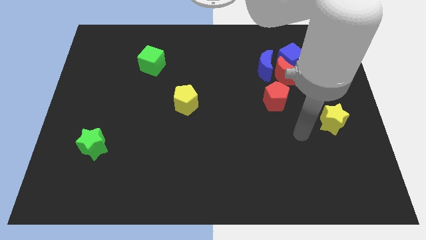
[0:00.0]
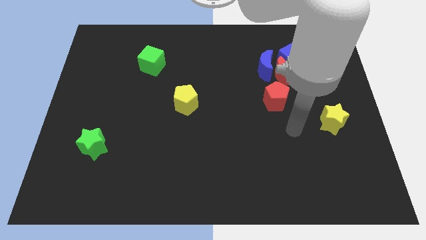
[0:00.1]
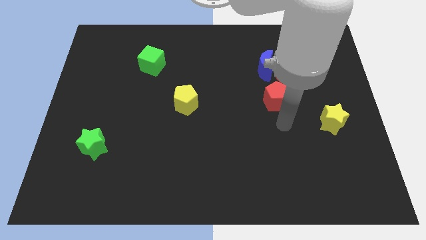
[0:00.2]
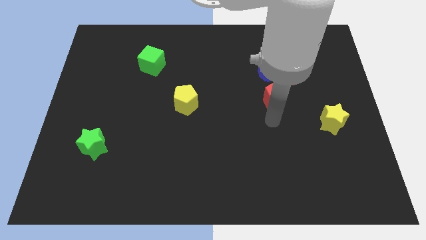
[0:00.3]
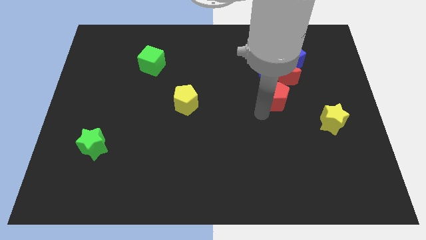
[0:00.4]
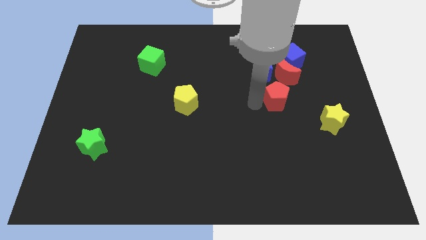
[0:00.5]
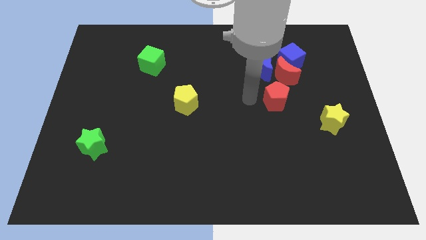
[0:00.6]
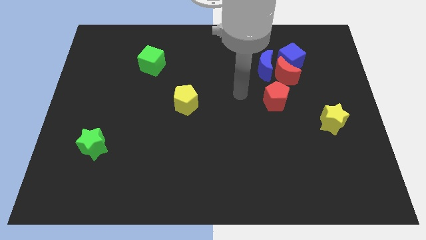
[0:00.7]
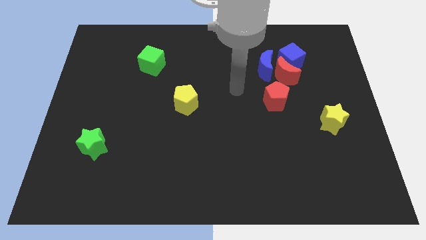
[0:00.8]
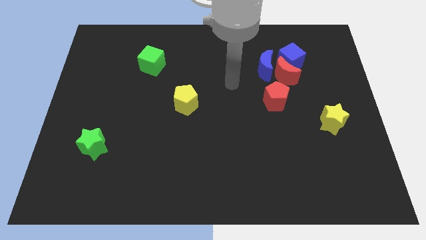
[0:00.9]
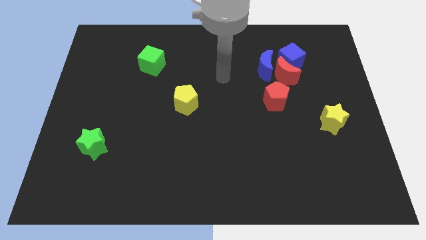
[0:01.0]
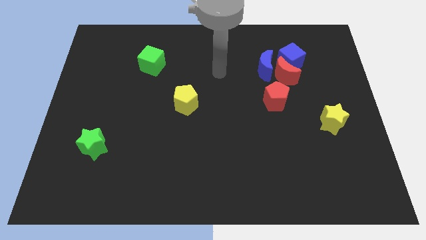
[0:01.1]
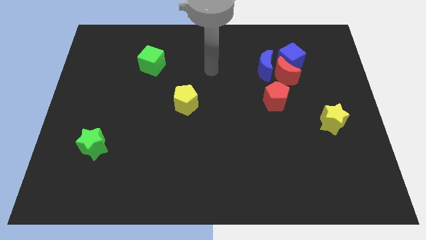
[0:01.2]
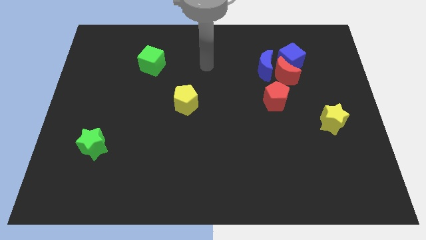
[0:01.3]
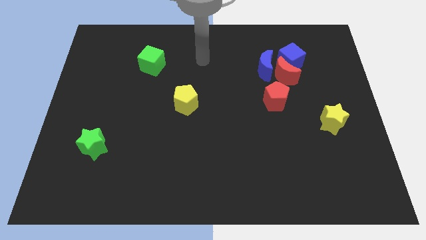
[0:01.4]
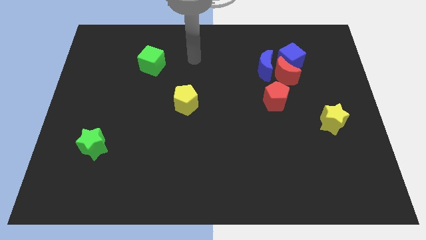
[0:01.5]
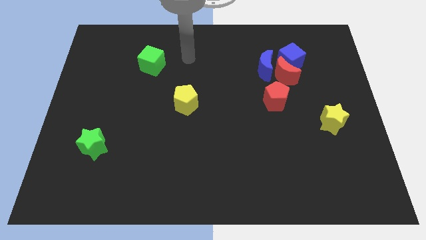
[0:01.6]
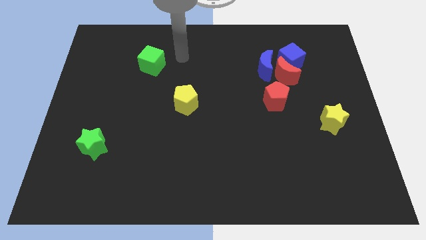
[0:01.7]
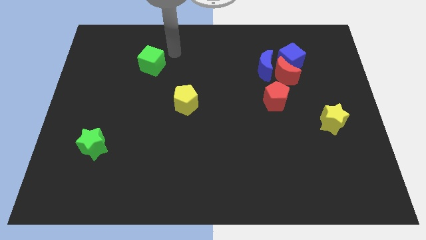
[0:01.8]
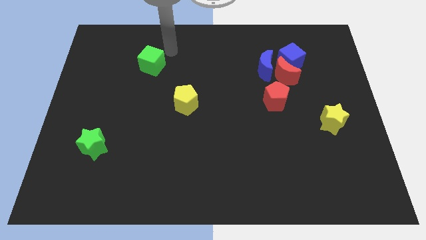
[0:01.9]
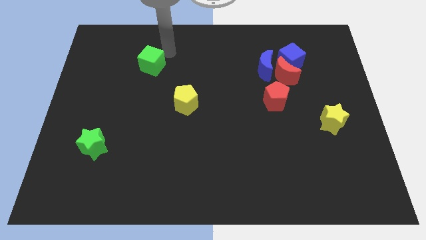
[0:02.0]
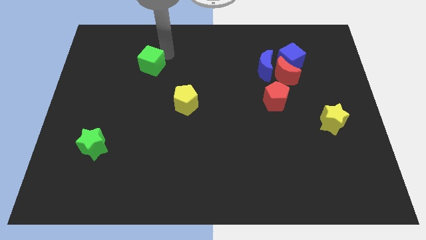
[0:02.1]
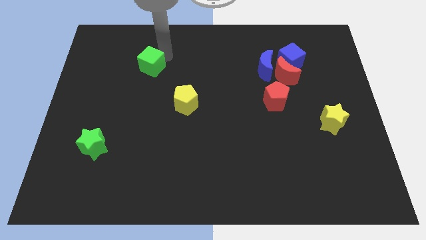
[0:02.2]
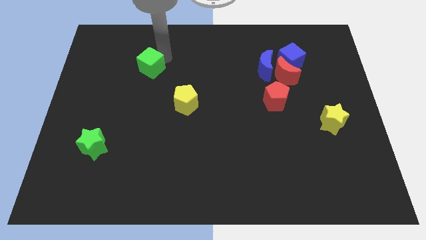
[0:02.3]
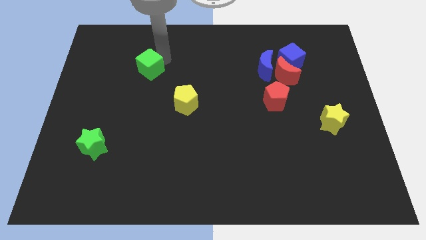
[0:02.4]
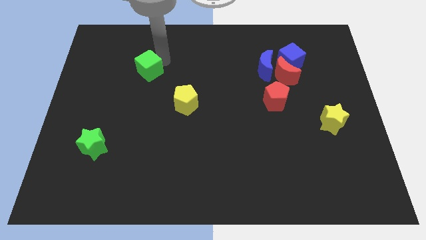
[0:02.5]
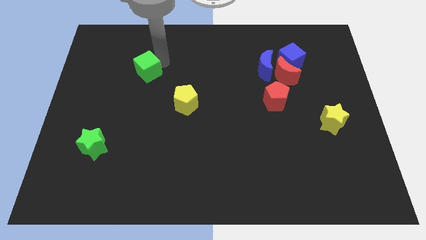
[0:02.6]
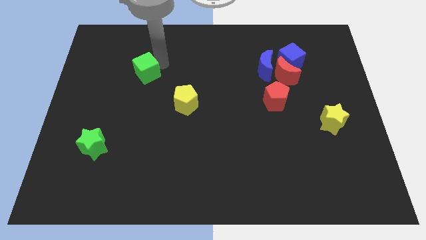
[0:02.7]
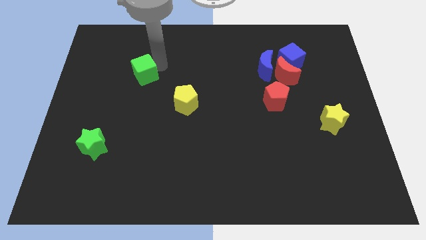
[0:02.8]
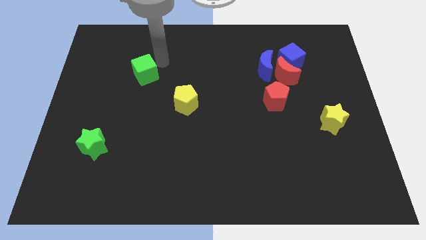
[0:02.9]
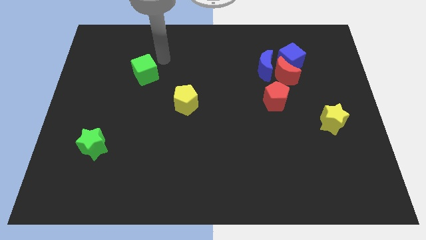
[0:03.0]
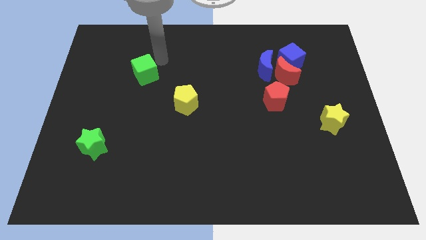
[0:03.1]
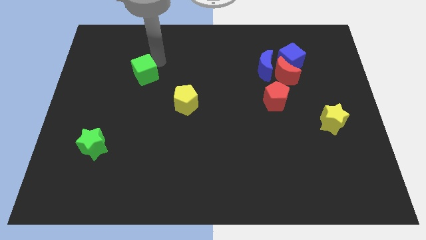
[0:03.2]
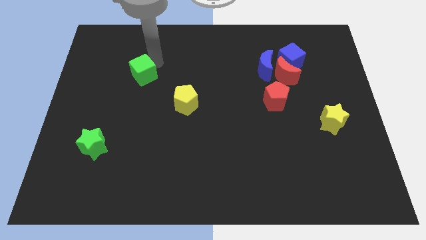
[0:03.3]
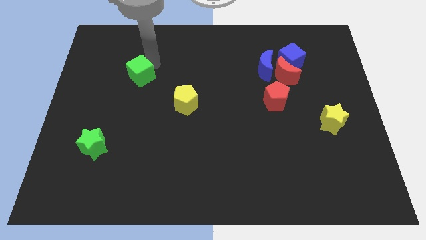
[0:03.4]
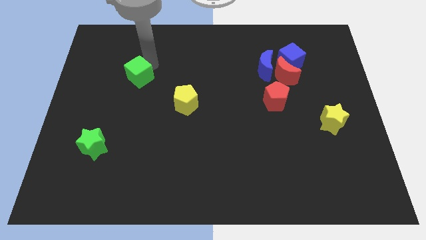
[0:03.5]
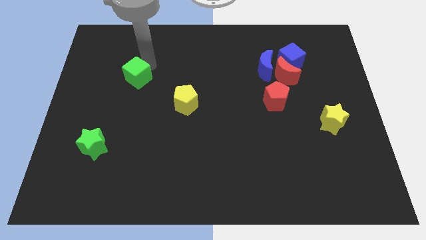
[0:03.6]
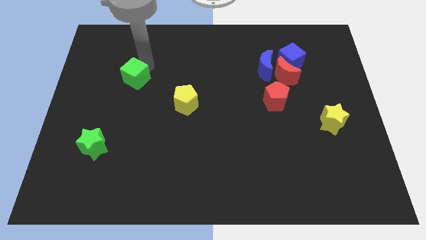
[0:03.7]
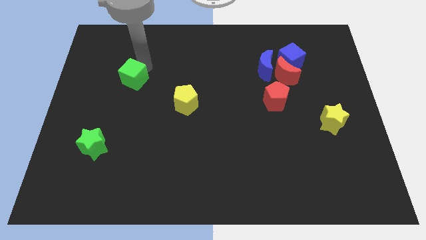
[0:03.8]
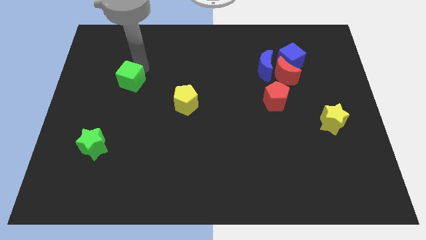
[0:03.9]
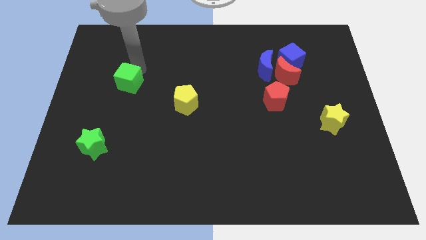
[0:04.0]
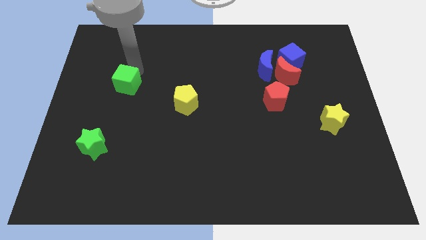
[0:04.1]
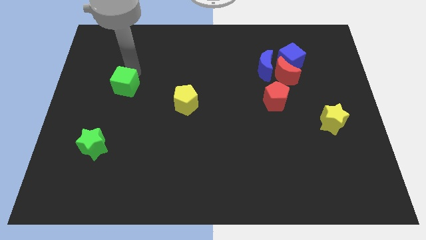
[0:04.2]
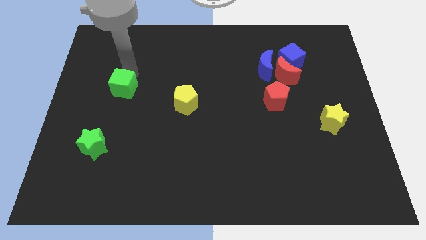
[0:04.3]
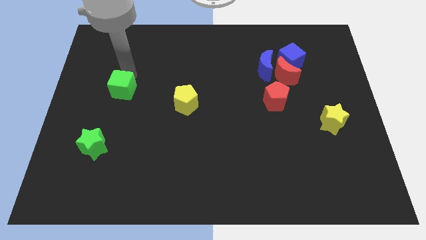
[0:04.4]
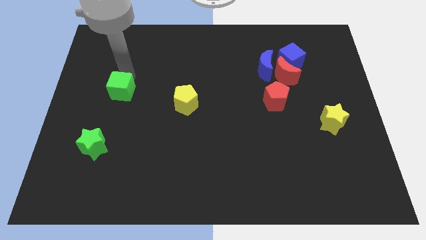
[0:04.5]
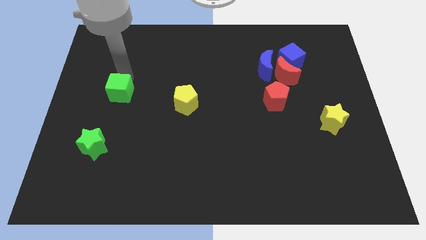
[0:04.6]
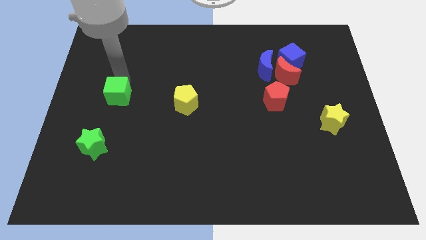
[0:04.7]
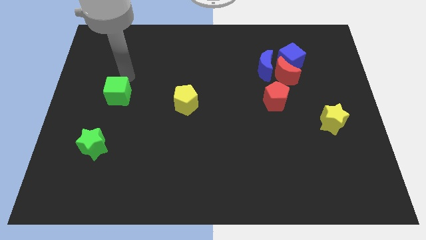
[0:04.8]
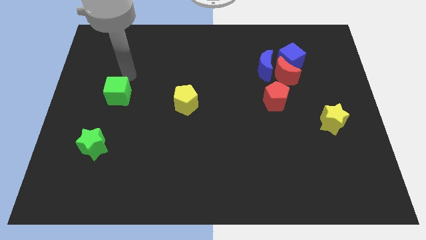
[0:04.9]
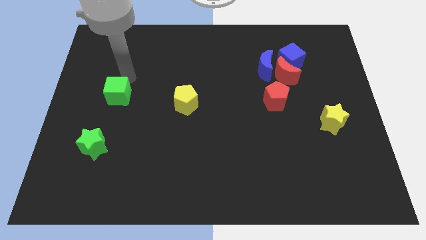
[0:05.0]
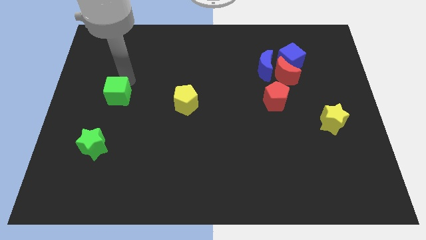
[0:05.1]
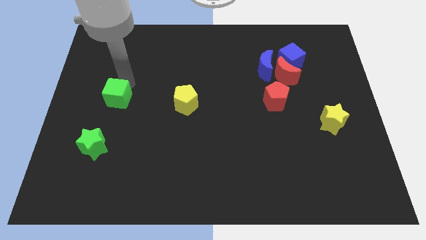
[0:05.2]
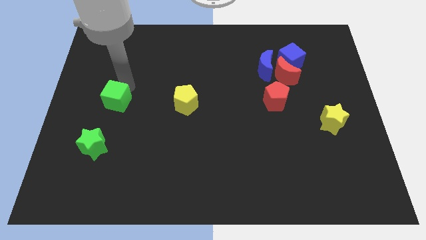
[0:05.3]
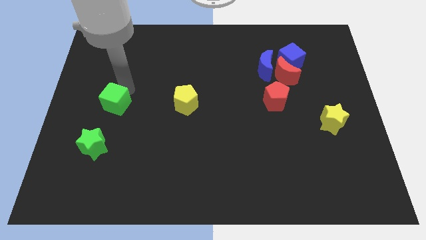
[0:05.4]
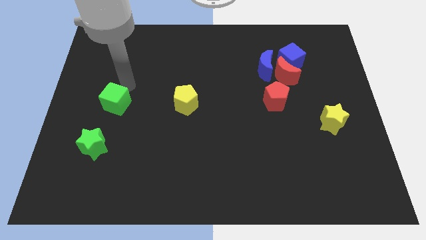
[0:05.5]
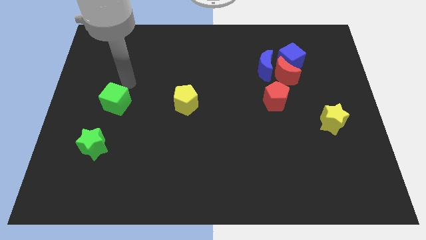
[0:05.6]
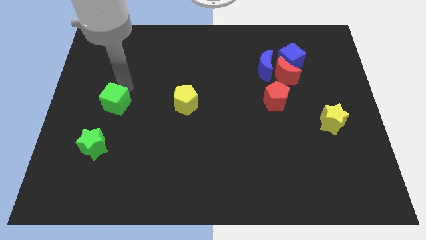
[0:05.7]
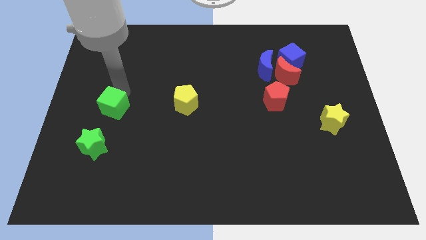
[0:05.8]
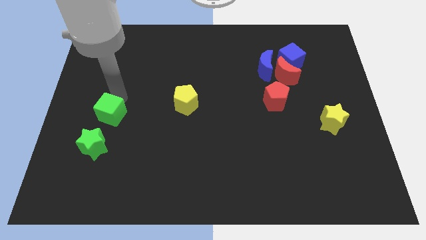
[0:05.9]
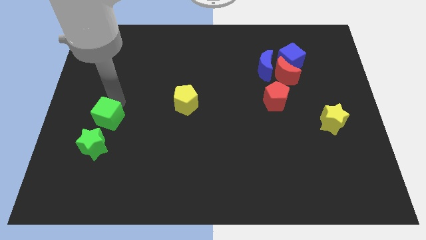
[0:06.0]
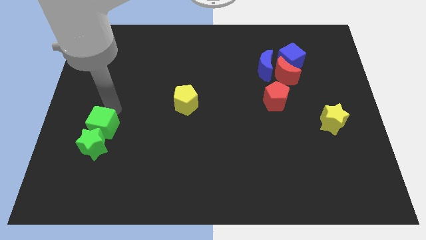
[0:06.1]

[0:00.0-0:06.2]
push the green cube to the green star
